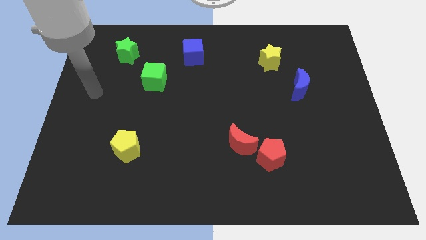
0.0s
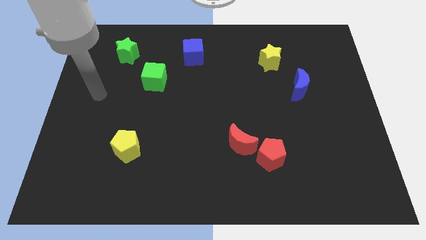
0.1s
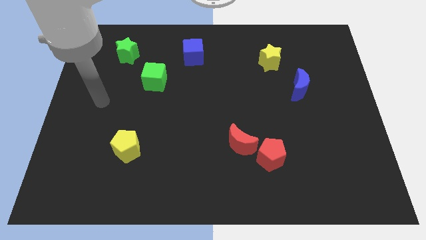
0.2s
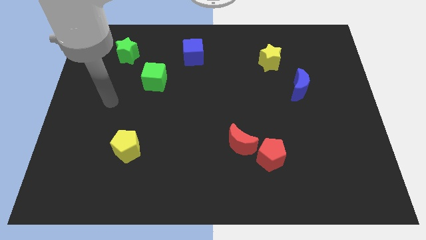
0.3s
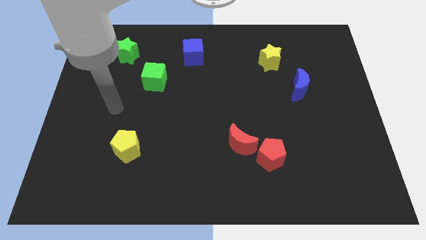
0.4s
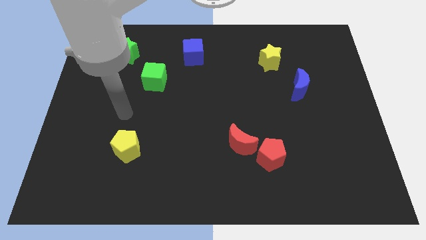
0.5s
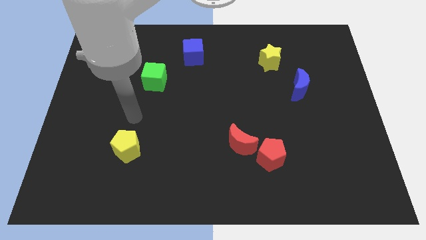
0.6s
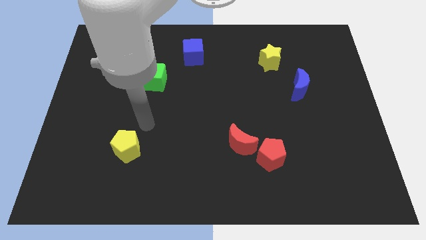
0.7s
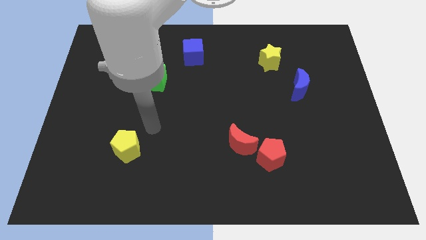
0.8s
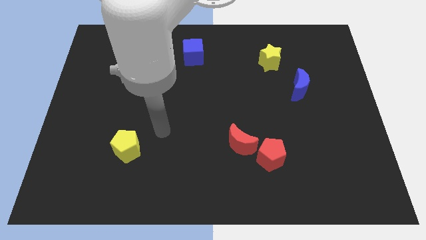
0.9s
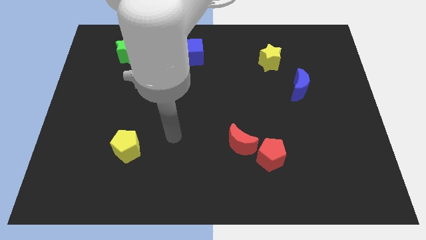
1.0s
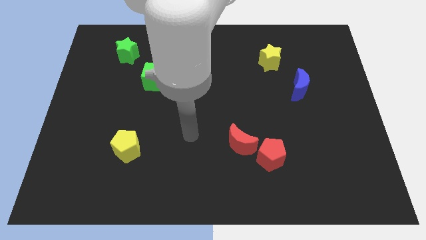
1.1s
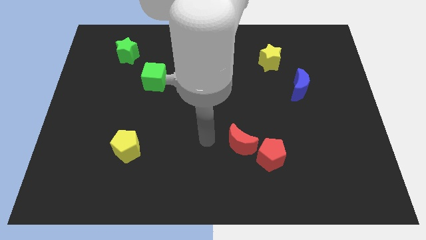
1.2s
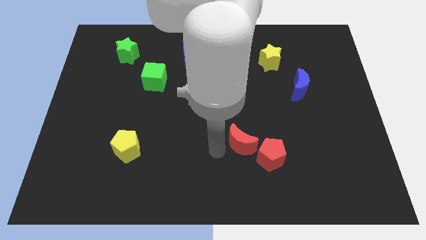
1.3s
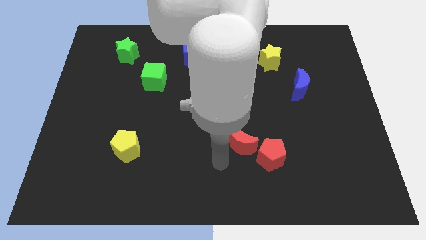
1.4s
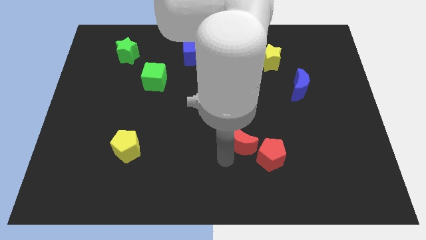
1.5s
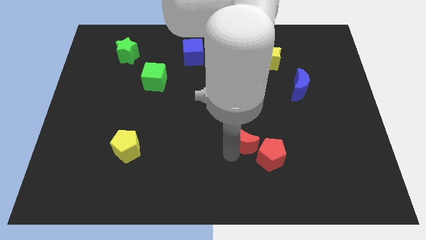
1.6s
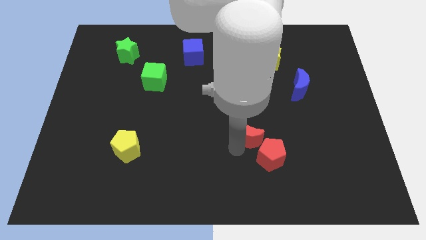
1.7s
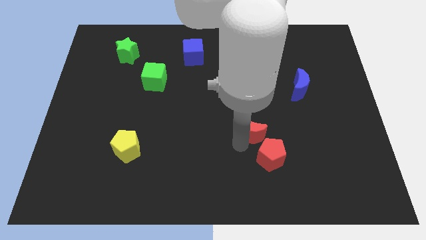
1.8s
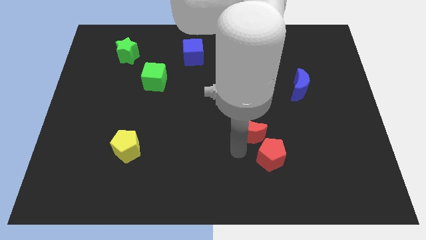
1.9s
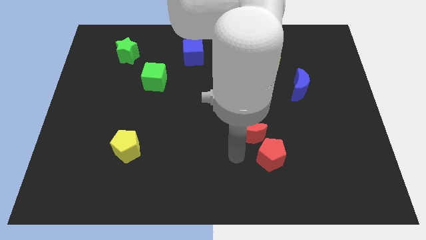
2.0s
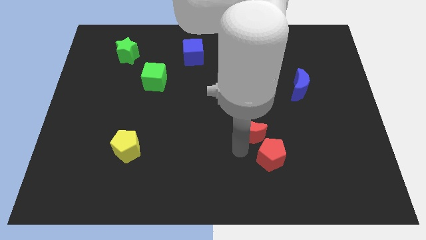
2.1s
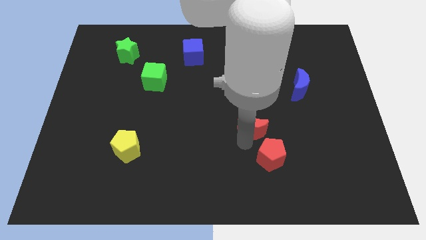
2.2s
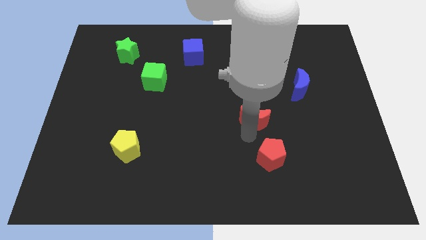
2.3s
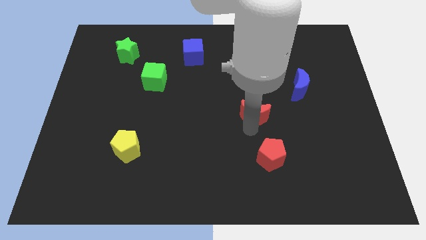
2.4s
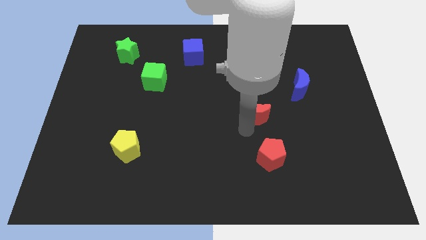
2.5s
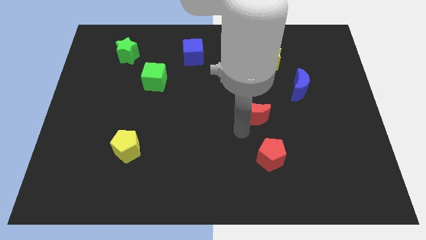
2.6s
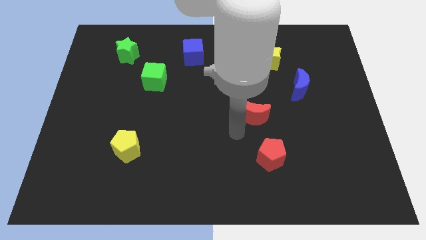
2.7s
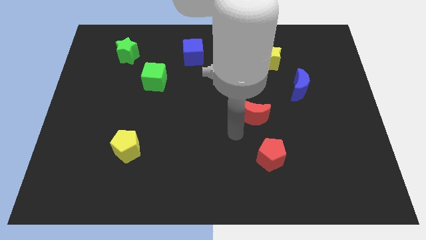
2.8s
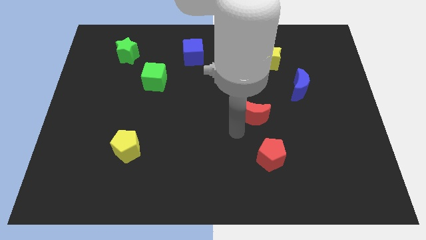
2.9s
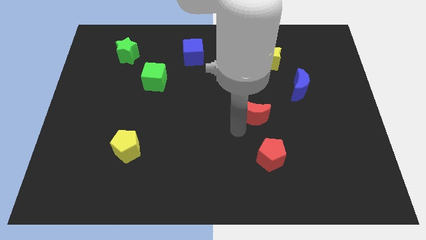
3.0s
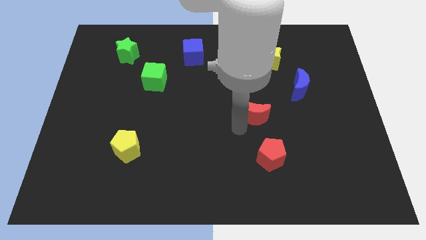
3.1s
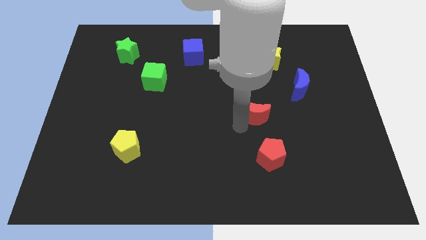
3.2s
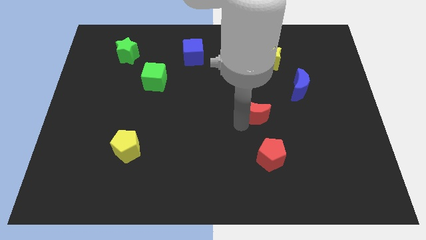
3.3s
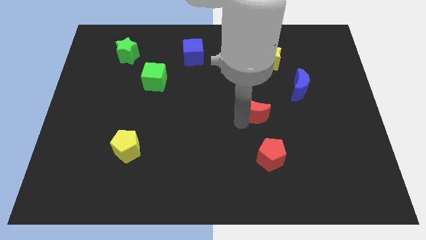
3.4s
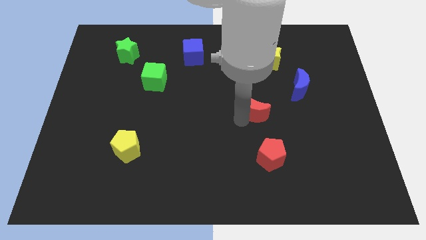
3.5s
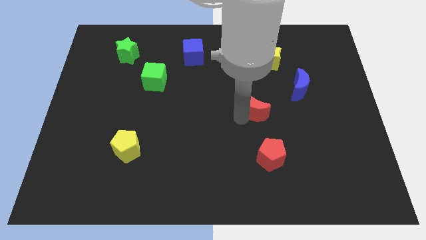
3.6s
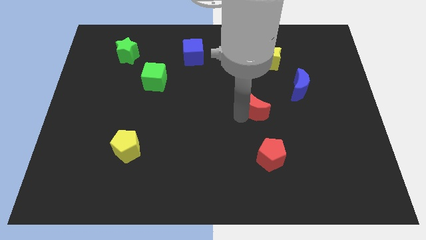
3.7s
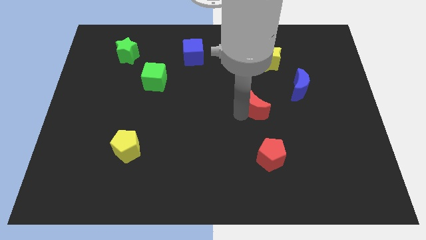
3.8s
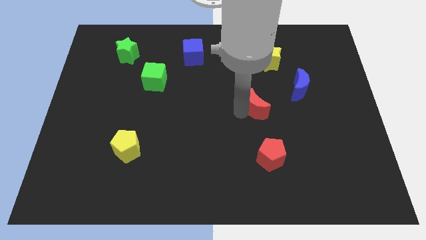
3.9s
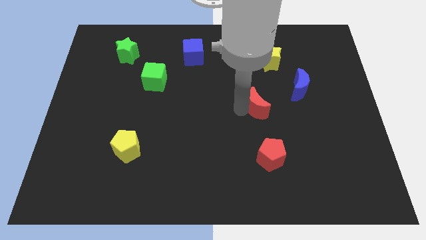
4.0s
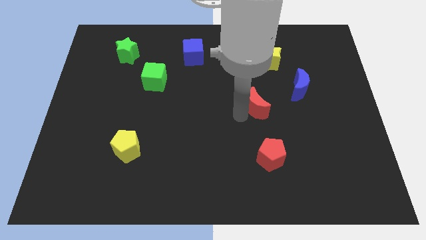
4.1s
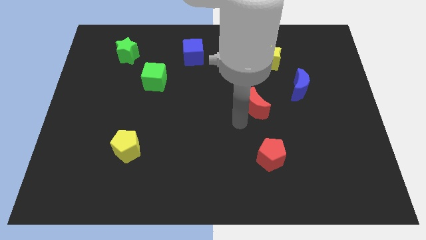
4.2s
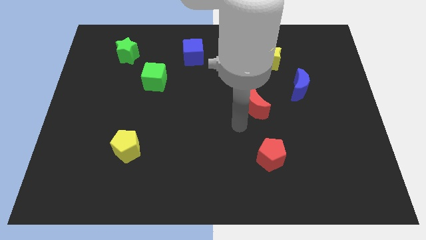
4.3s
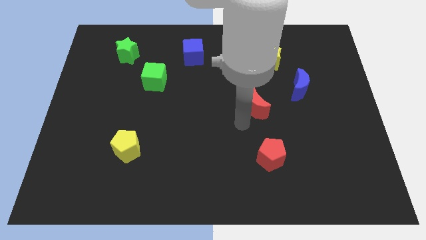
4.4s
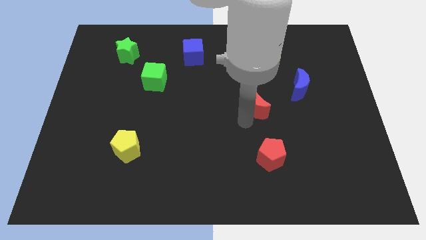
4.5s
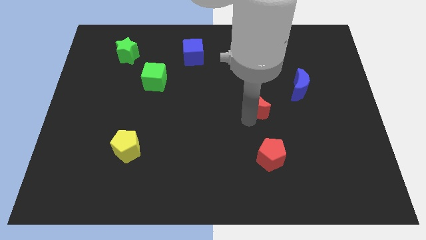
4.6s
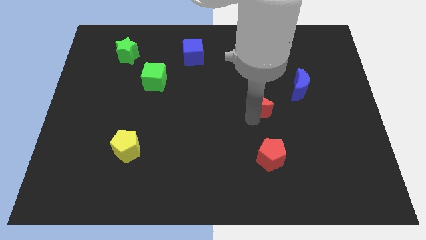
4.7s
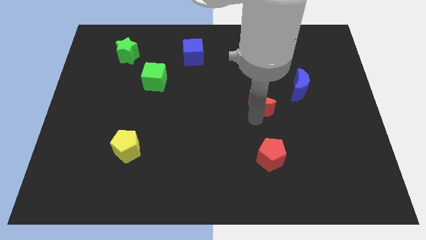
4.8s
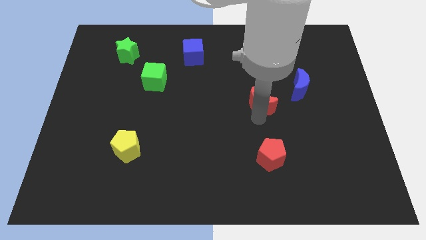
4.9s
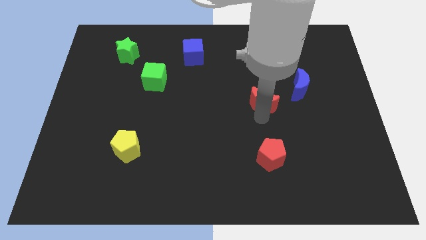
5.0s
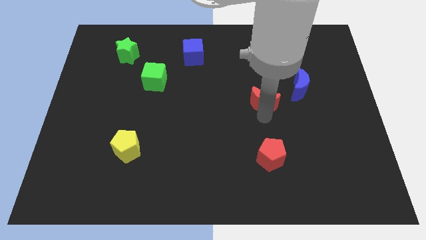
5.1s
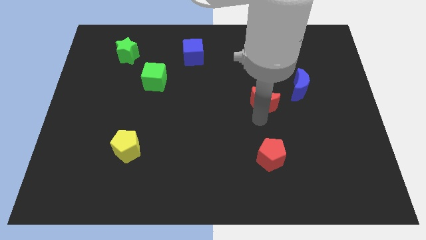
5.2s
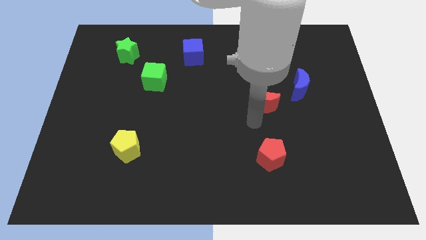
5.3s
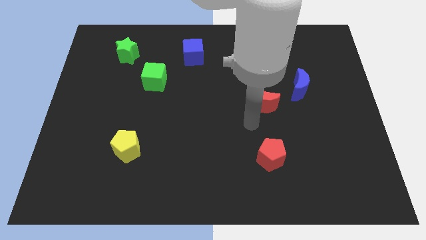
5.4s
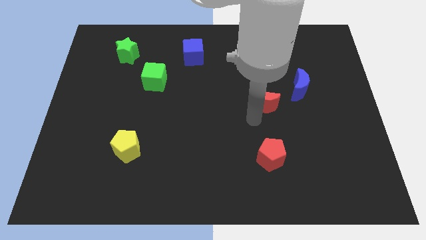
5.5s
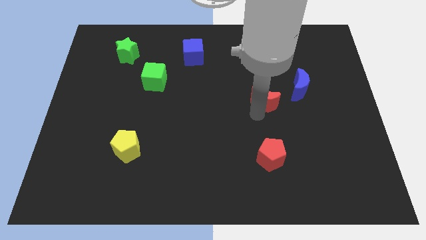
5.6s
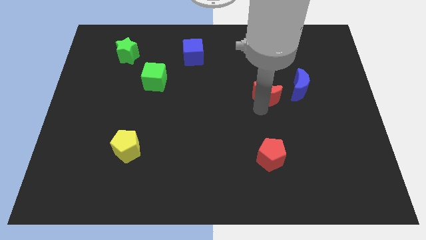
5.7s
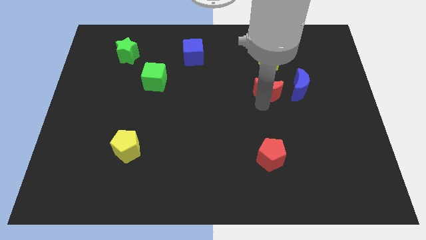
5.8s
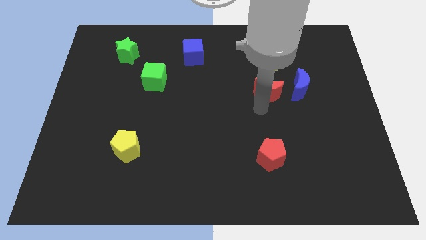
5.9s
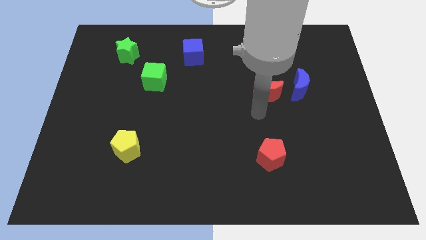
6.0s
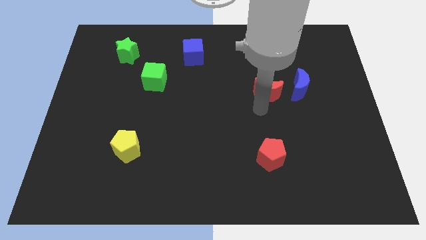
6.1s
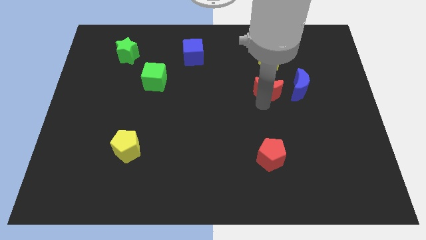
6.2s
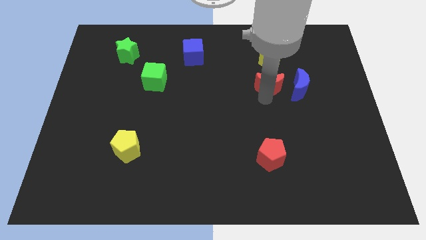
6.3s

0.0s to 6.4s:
put the red moon diagonally up and to the left of the blue moon
